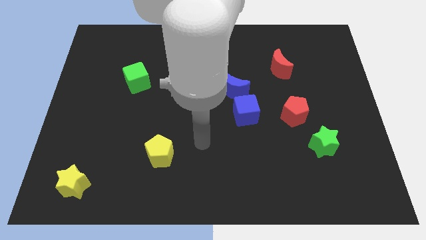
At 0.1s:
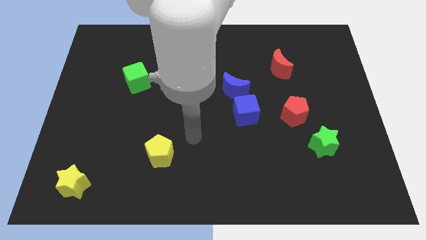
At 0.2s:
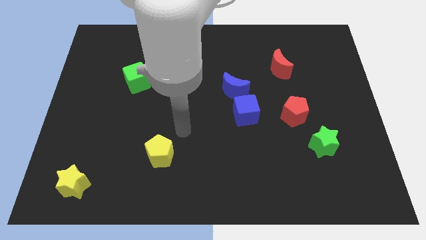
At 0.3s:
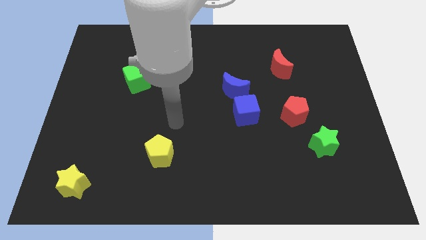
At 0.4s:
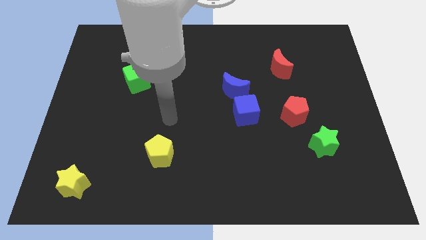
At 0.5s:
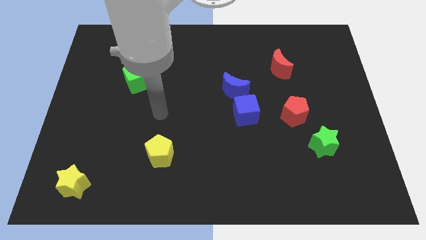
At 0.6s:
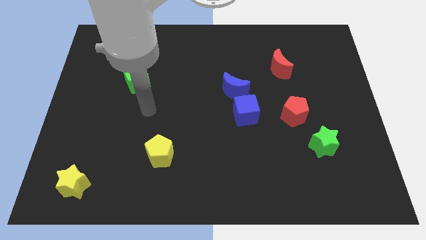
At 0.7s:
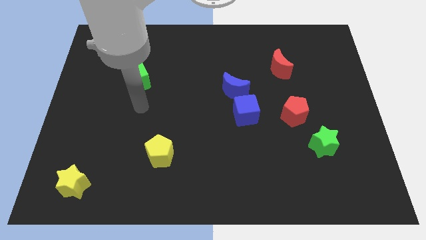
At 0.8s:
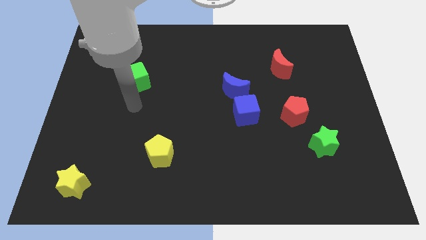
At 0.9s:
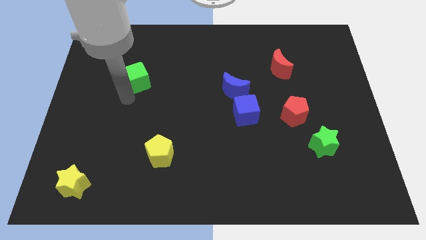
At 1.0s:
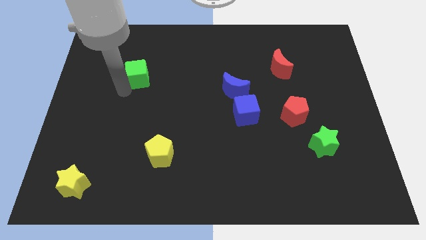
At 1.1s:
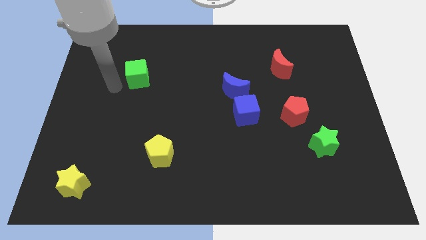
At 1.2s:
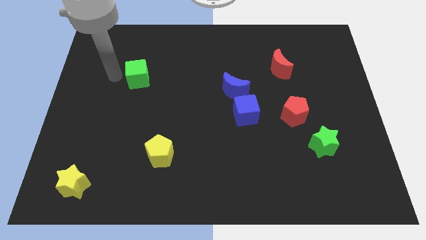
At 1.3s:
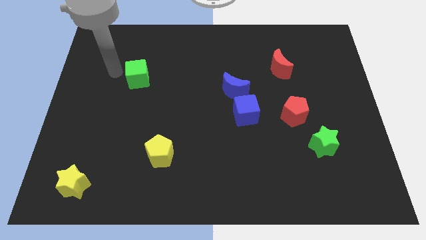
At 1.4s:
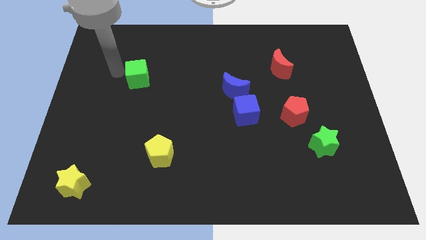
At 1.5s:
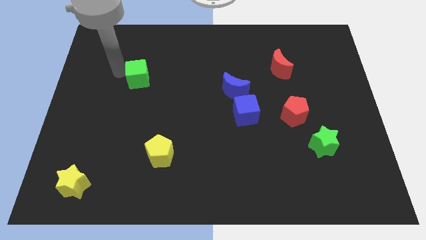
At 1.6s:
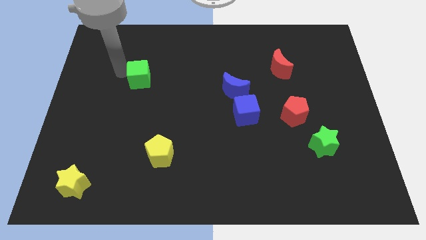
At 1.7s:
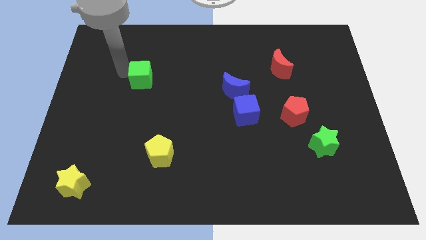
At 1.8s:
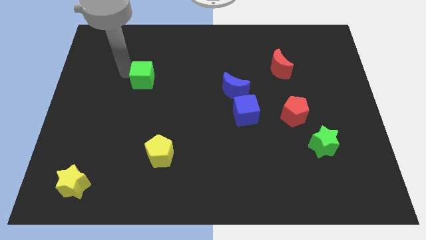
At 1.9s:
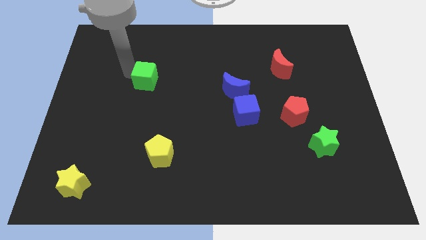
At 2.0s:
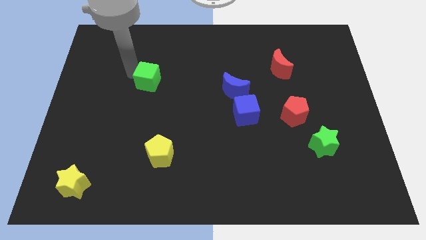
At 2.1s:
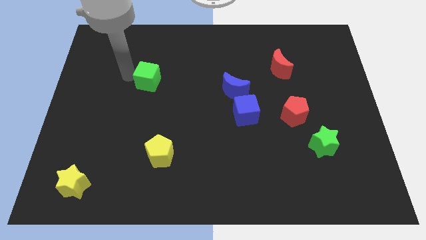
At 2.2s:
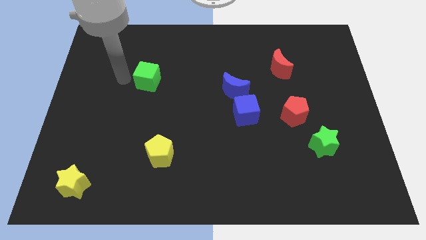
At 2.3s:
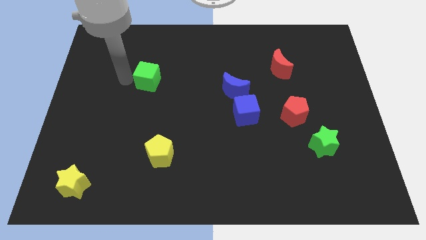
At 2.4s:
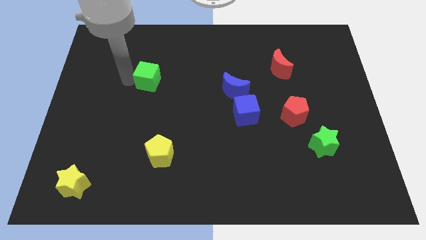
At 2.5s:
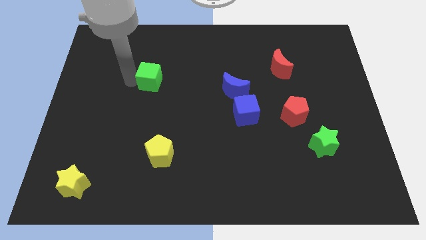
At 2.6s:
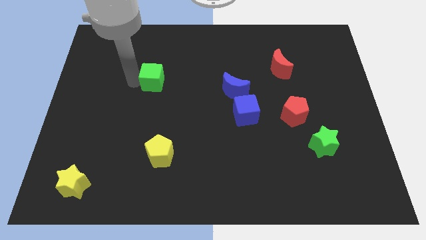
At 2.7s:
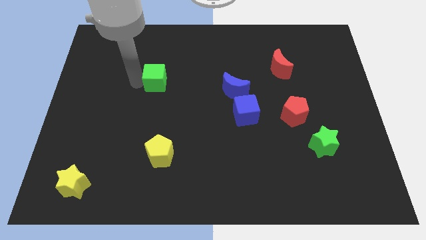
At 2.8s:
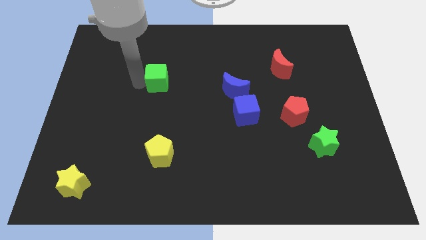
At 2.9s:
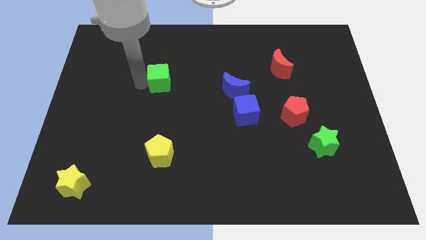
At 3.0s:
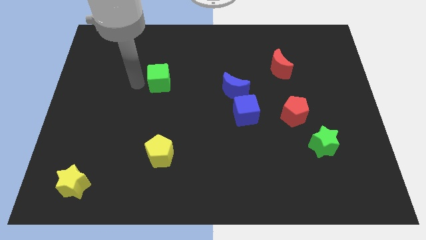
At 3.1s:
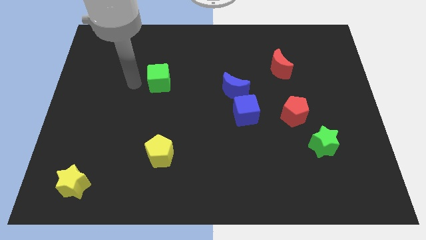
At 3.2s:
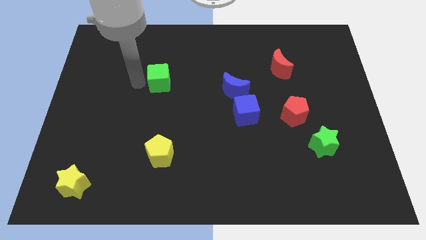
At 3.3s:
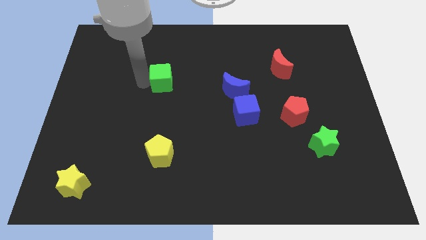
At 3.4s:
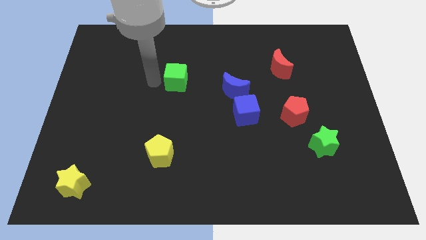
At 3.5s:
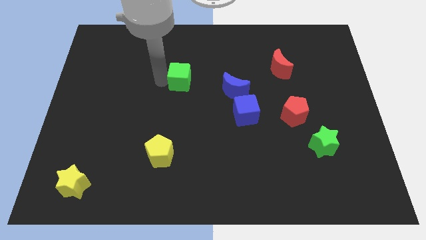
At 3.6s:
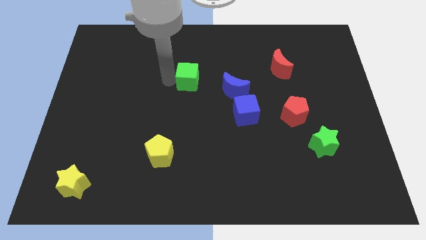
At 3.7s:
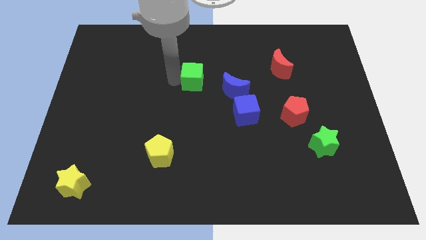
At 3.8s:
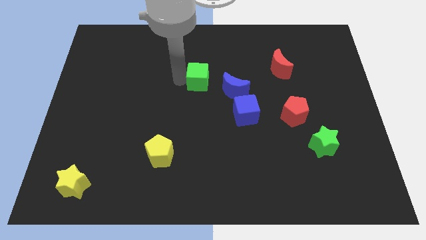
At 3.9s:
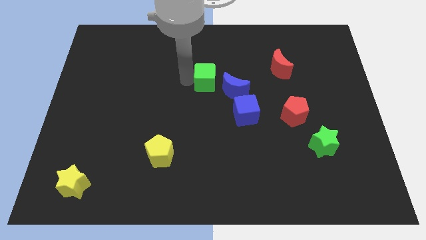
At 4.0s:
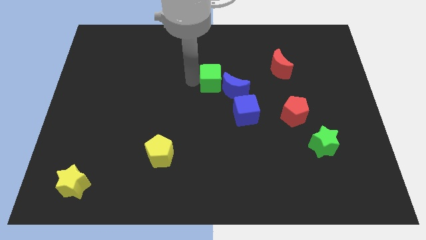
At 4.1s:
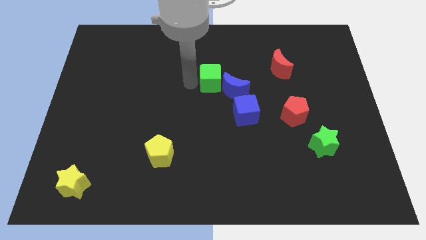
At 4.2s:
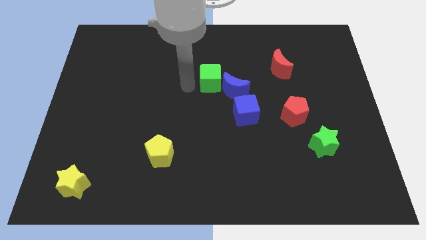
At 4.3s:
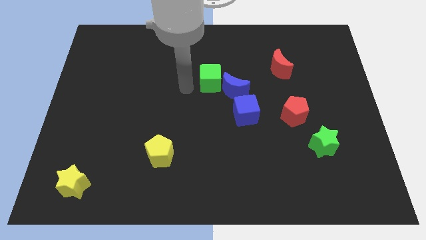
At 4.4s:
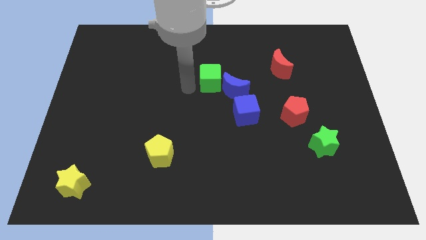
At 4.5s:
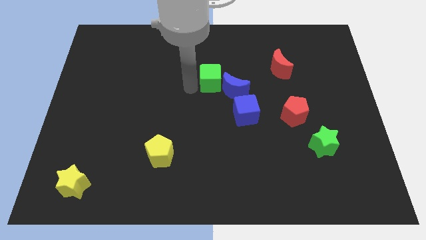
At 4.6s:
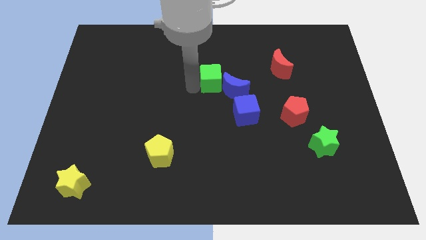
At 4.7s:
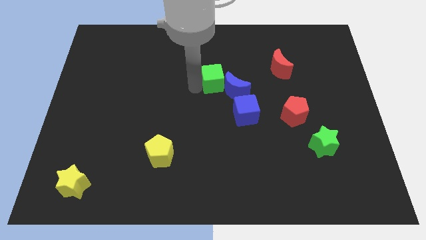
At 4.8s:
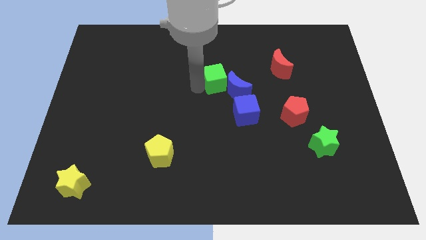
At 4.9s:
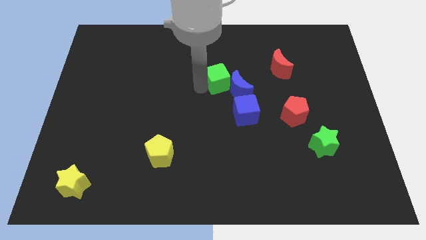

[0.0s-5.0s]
push the green cube right

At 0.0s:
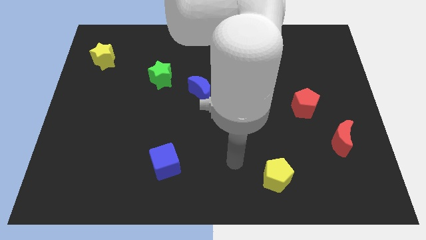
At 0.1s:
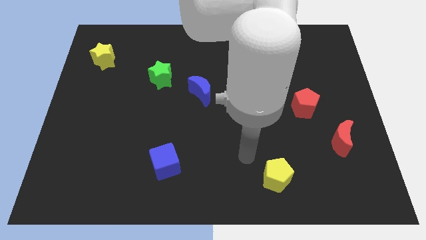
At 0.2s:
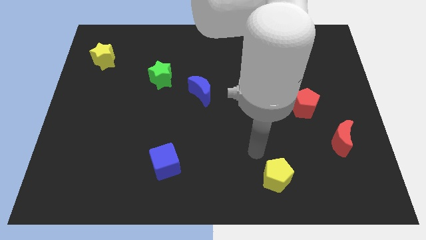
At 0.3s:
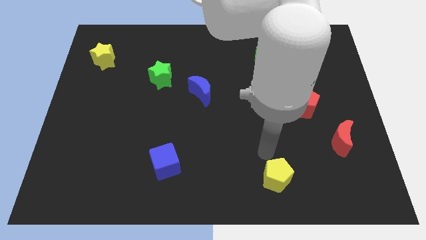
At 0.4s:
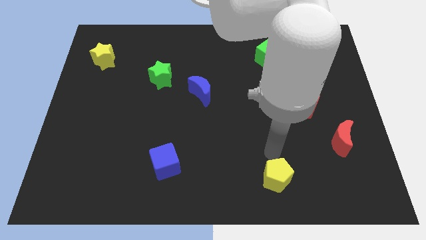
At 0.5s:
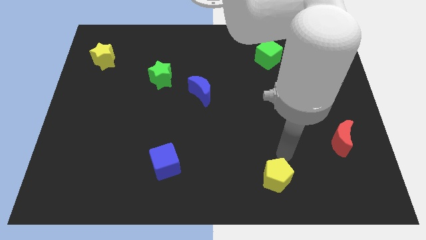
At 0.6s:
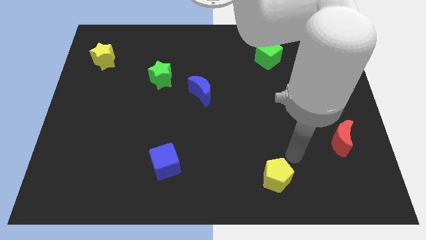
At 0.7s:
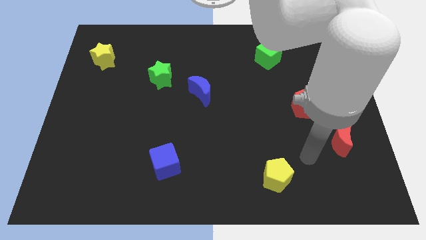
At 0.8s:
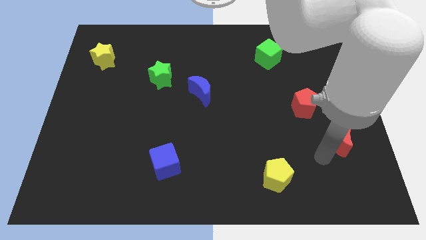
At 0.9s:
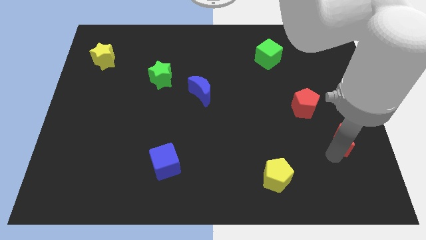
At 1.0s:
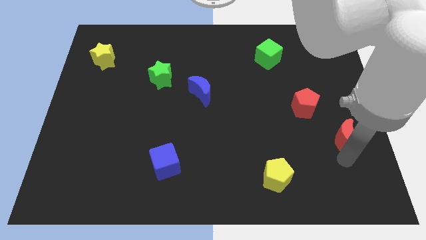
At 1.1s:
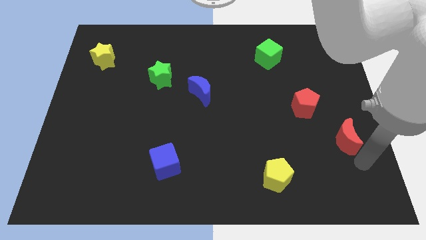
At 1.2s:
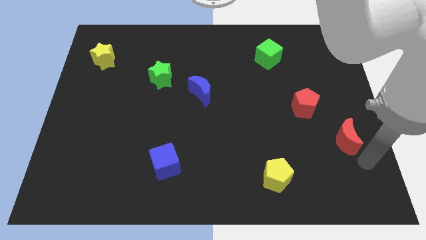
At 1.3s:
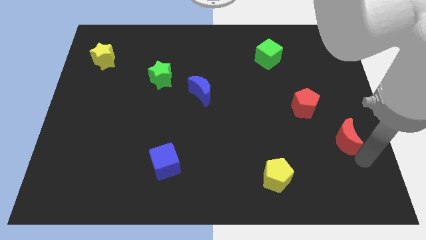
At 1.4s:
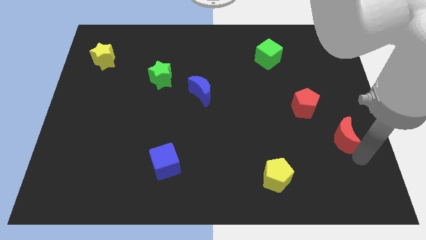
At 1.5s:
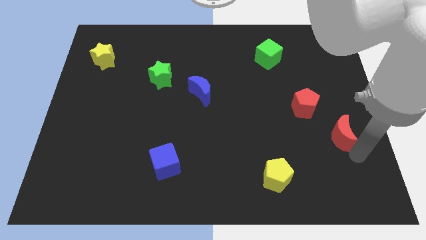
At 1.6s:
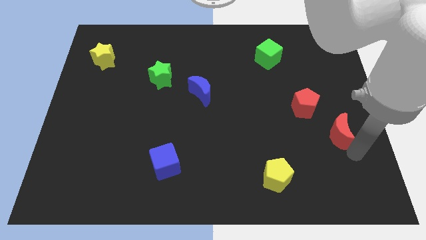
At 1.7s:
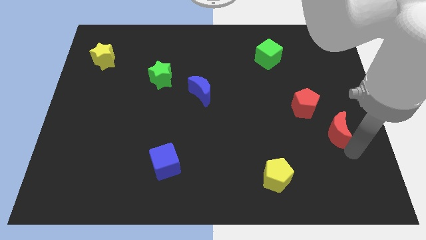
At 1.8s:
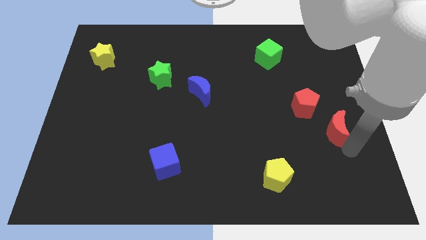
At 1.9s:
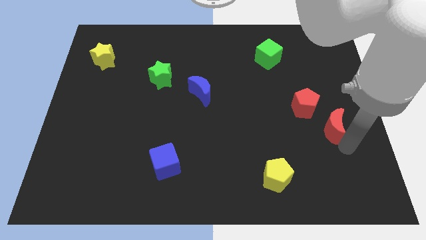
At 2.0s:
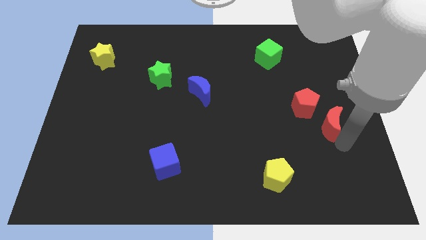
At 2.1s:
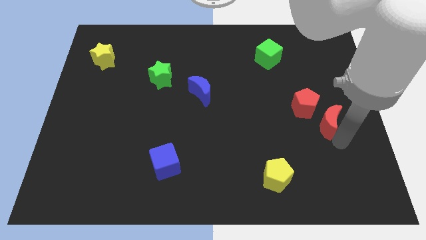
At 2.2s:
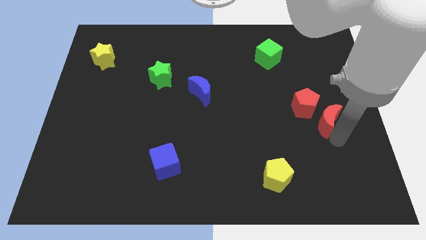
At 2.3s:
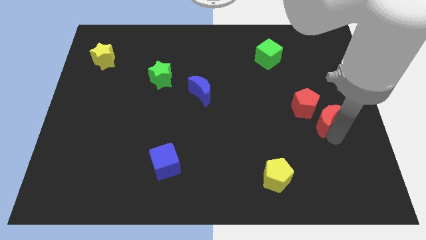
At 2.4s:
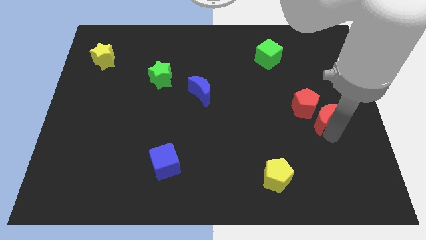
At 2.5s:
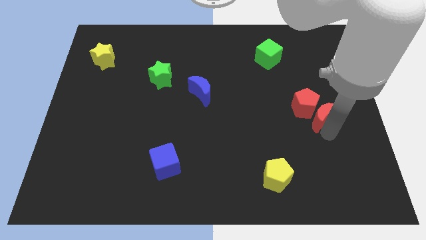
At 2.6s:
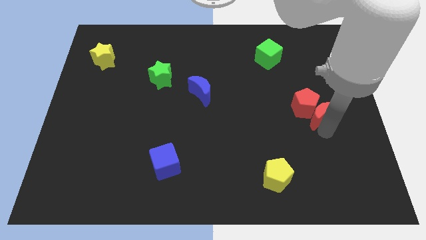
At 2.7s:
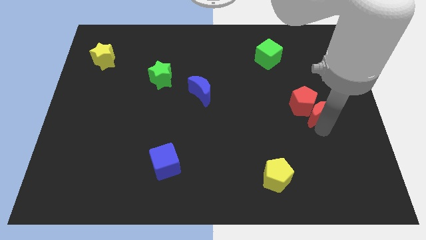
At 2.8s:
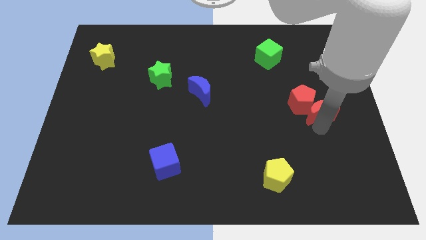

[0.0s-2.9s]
push the red moon upwards somewhat

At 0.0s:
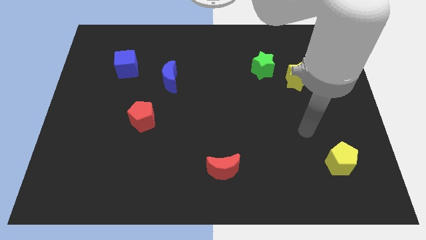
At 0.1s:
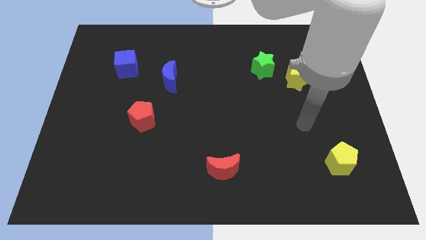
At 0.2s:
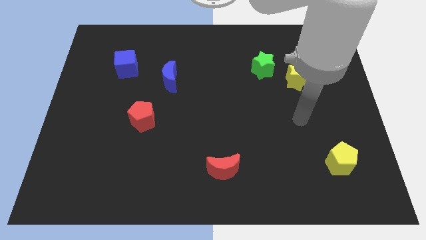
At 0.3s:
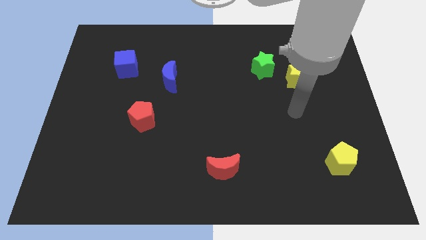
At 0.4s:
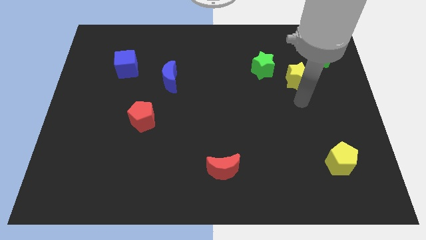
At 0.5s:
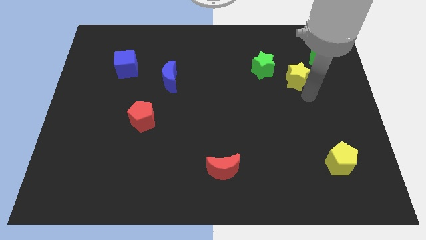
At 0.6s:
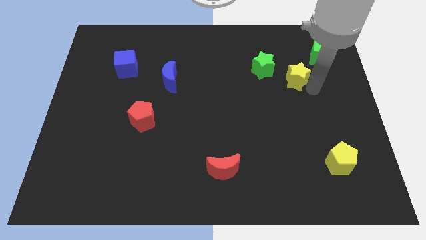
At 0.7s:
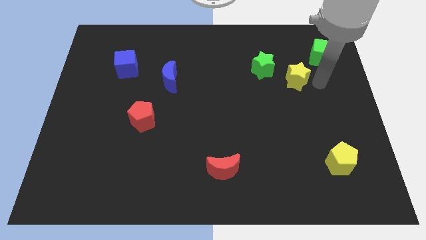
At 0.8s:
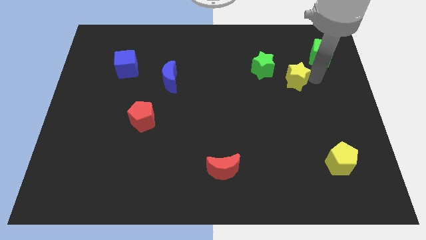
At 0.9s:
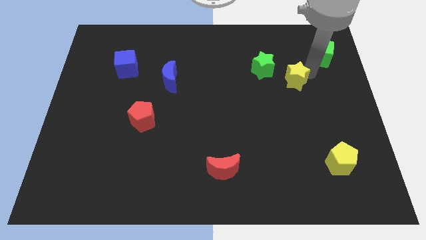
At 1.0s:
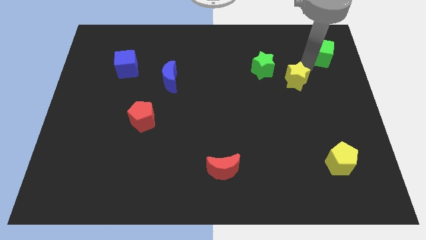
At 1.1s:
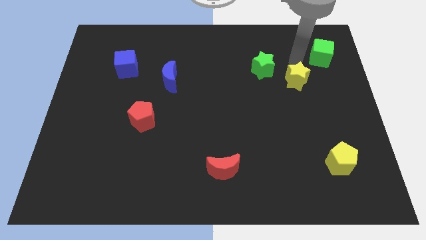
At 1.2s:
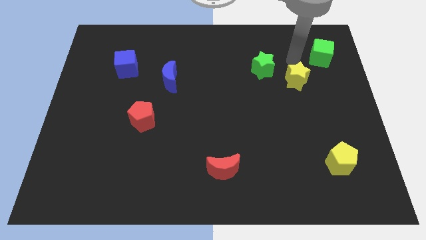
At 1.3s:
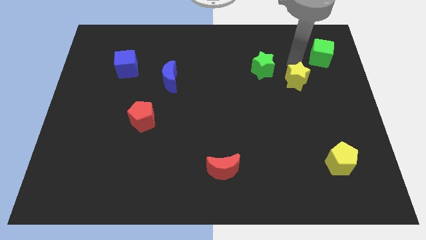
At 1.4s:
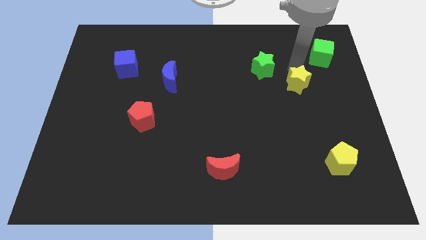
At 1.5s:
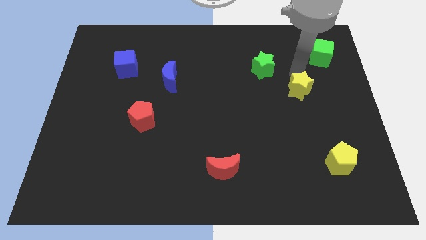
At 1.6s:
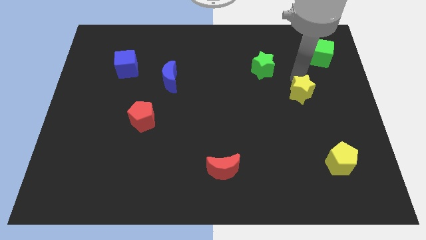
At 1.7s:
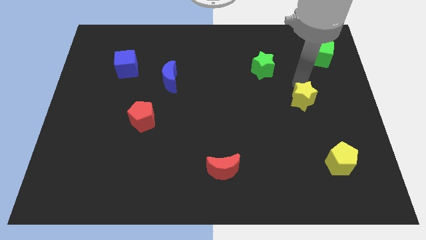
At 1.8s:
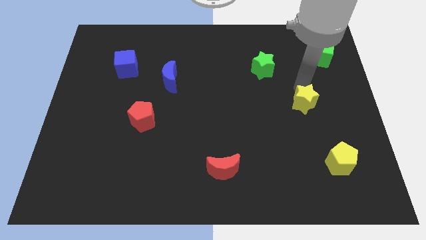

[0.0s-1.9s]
slightly push the yellow star downwards
